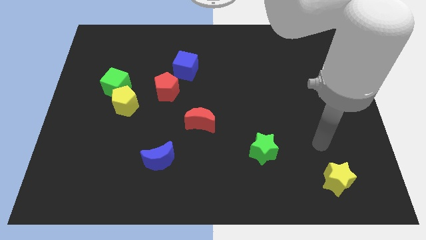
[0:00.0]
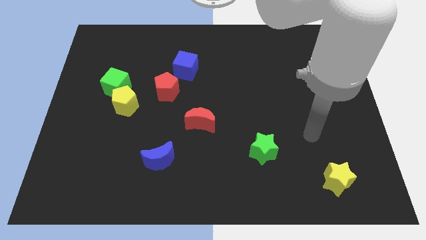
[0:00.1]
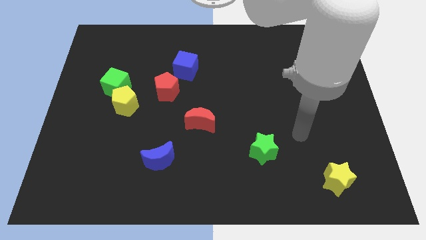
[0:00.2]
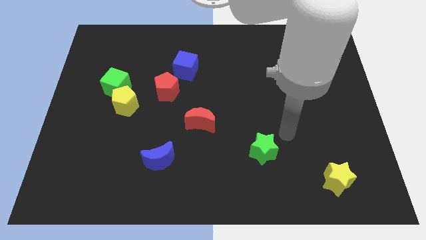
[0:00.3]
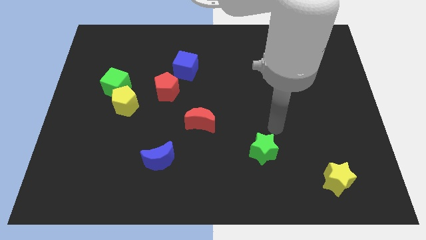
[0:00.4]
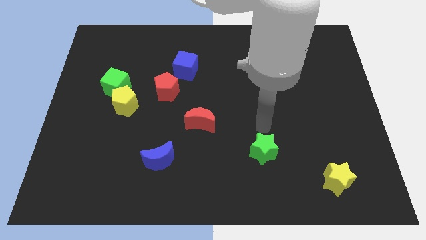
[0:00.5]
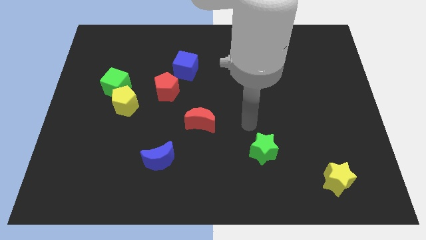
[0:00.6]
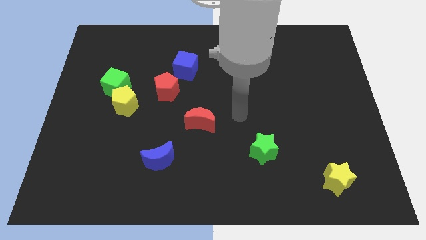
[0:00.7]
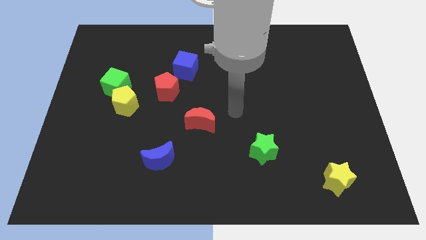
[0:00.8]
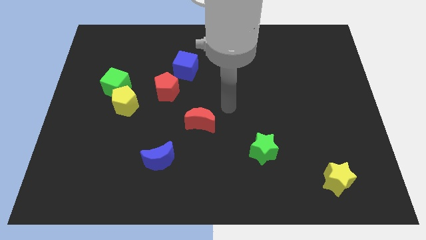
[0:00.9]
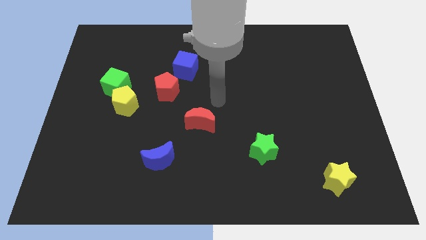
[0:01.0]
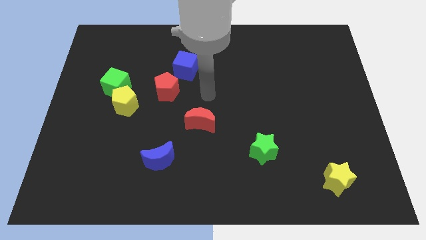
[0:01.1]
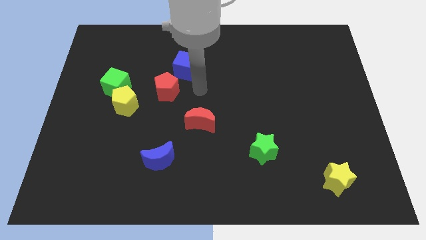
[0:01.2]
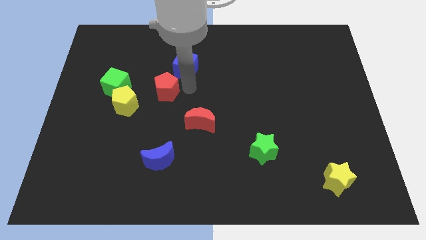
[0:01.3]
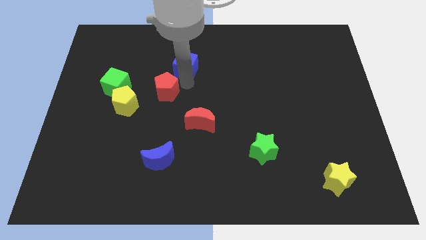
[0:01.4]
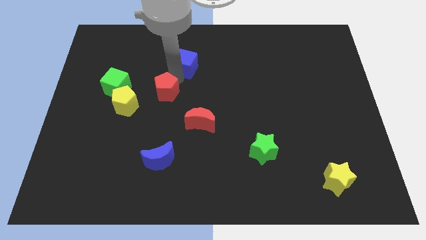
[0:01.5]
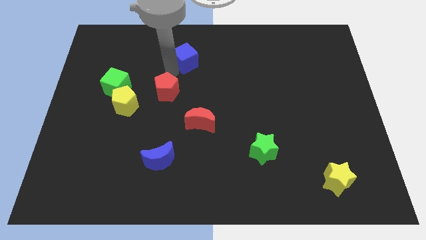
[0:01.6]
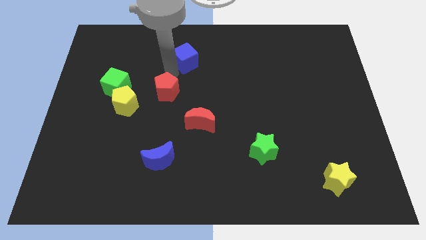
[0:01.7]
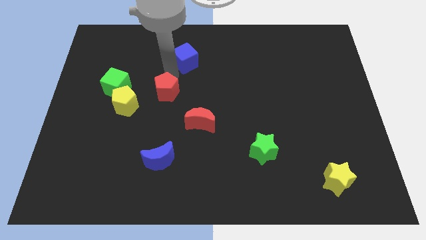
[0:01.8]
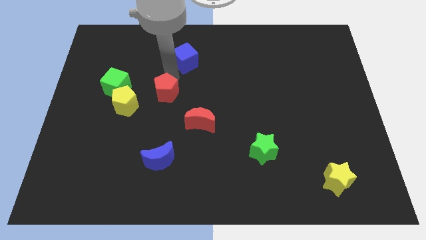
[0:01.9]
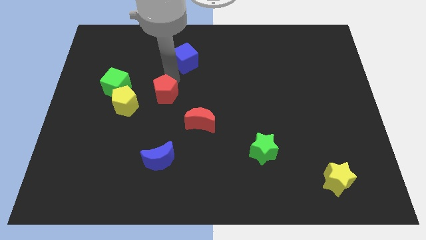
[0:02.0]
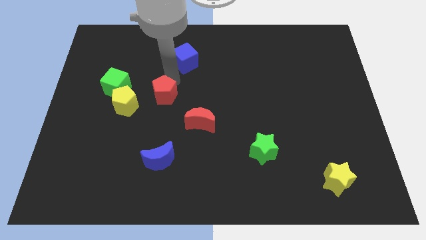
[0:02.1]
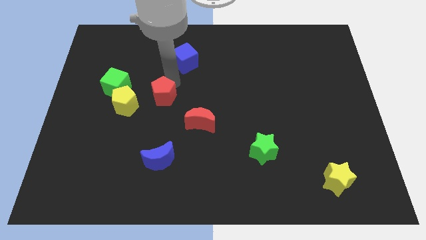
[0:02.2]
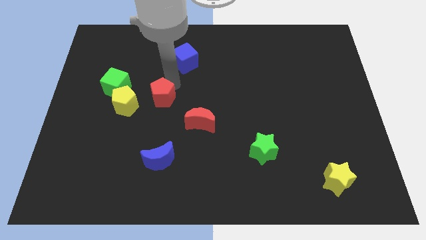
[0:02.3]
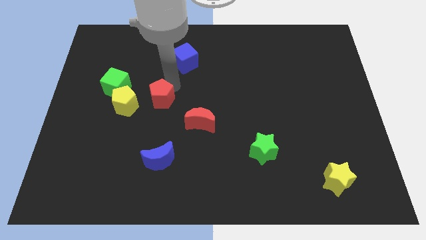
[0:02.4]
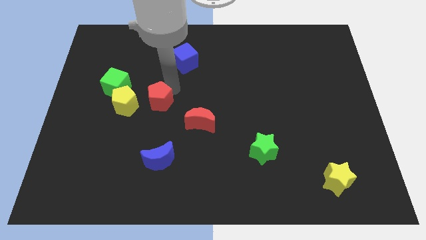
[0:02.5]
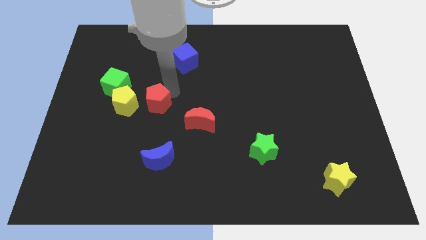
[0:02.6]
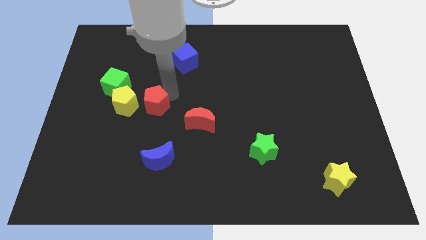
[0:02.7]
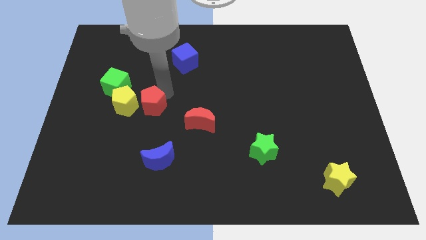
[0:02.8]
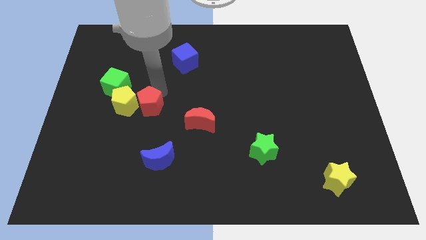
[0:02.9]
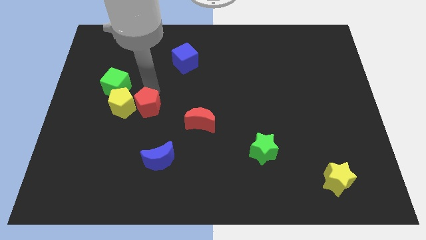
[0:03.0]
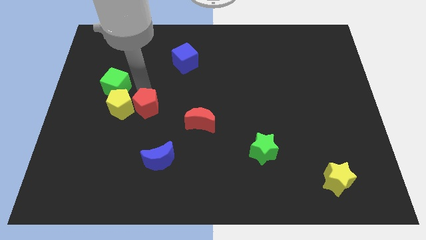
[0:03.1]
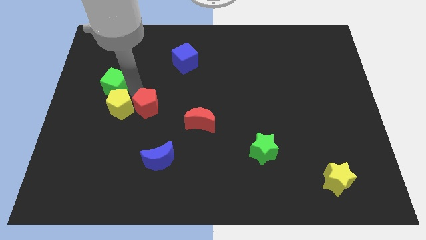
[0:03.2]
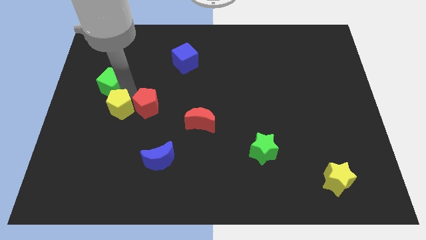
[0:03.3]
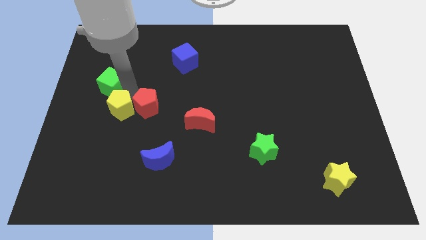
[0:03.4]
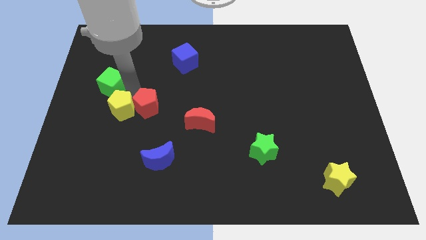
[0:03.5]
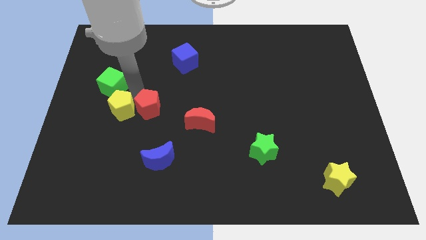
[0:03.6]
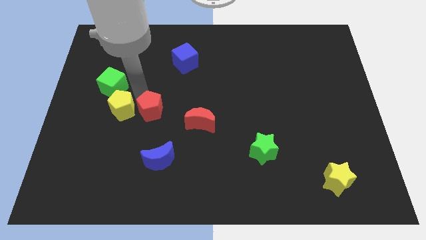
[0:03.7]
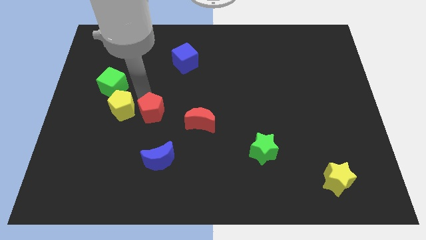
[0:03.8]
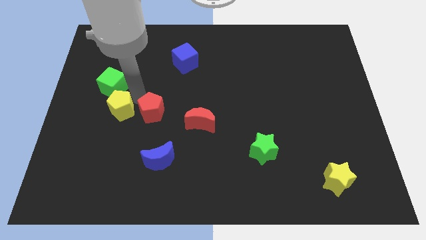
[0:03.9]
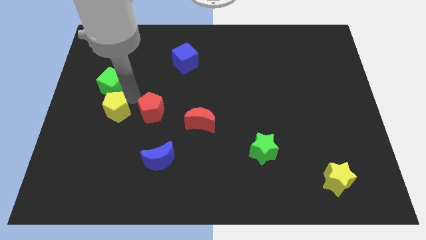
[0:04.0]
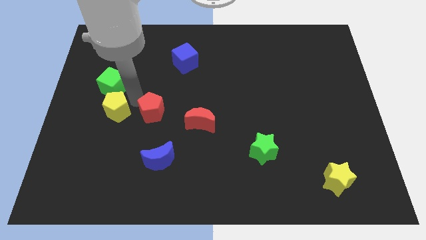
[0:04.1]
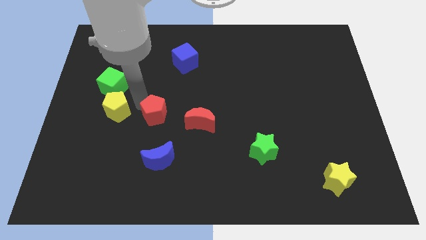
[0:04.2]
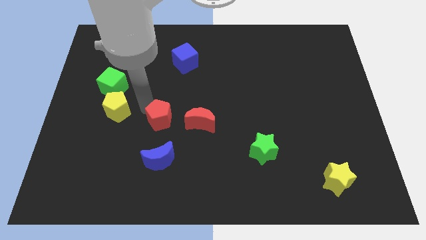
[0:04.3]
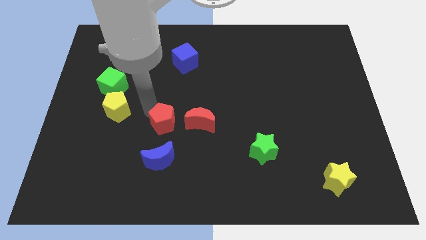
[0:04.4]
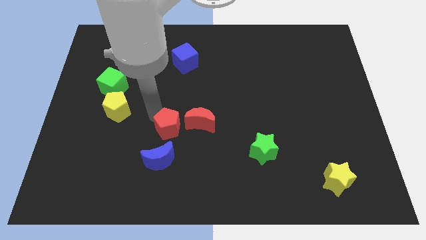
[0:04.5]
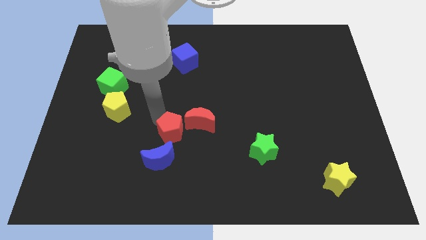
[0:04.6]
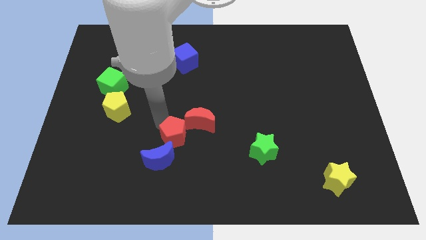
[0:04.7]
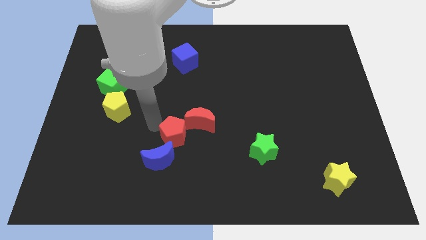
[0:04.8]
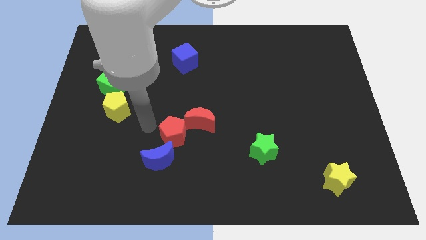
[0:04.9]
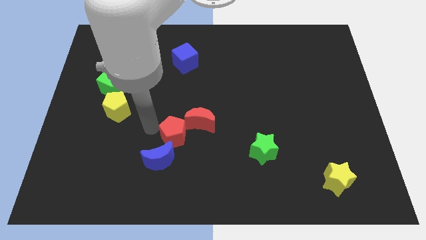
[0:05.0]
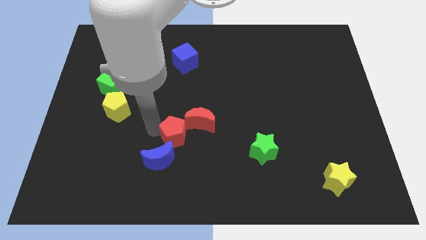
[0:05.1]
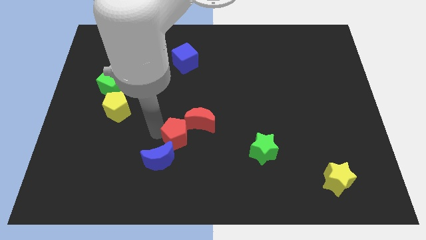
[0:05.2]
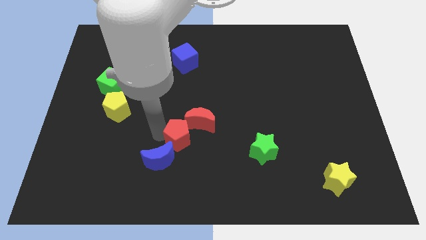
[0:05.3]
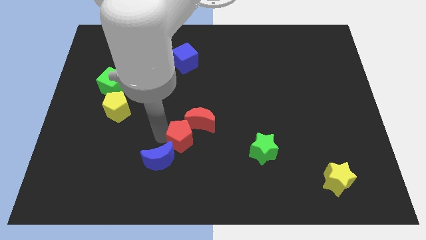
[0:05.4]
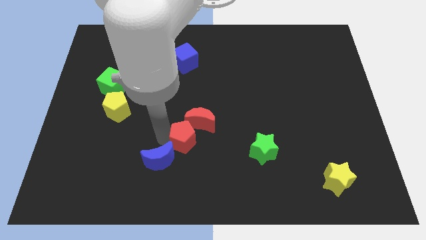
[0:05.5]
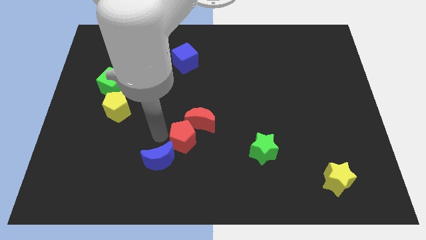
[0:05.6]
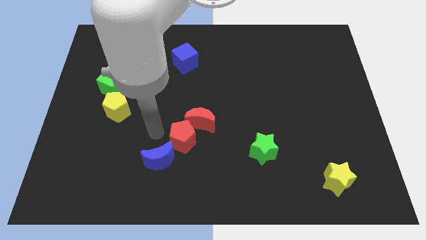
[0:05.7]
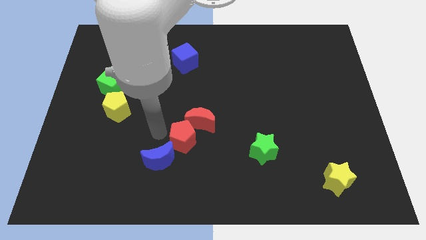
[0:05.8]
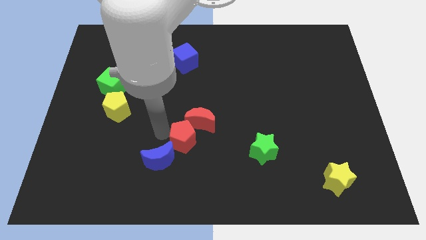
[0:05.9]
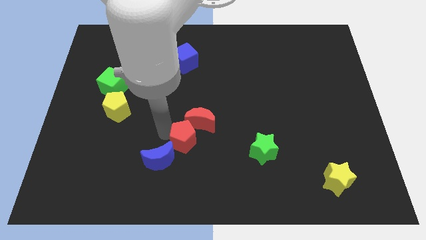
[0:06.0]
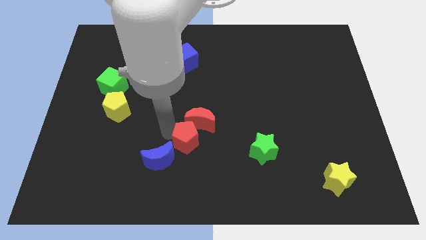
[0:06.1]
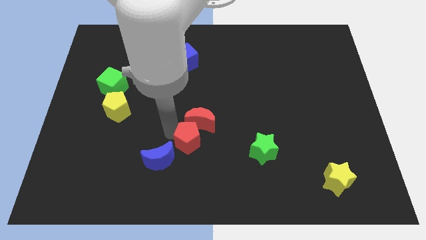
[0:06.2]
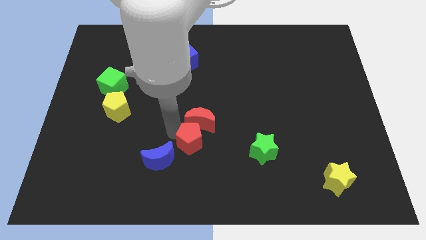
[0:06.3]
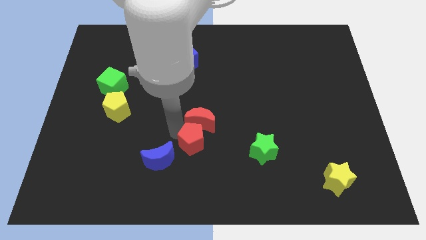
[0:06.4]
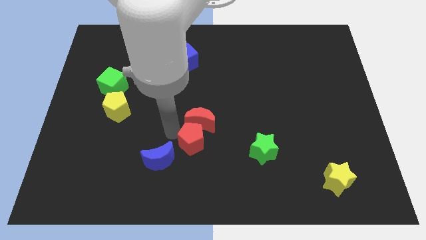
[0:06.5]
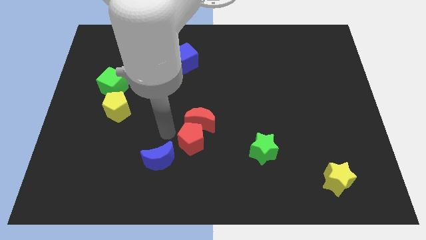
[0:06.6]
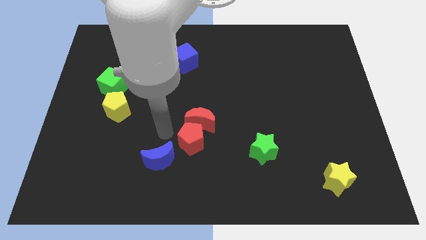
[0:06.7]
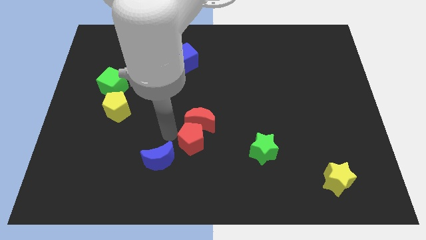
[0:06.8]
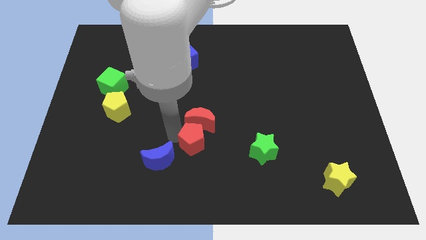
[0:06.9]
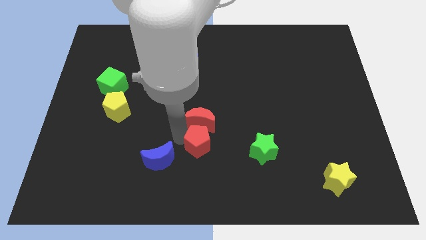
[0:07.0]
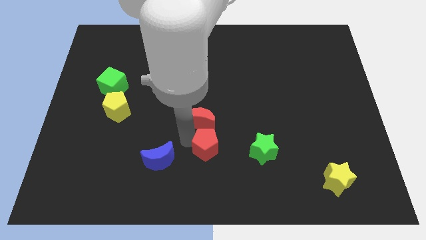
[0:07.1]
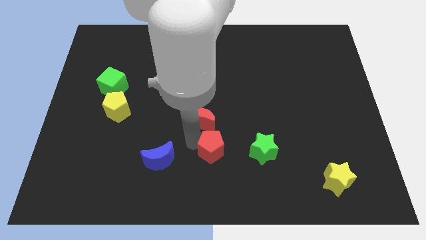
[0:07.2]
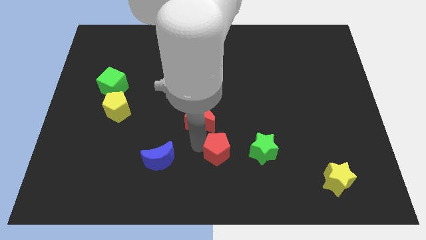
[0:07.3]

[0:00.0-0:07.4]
push the red pentagon downwards and then right

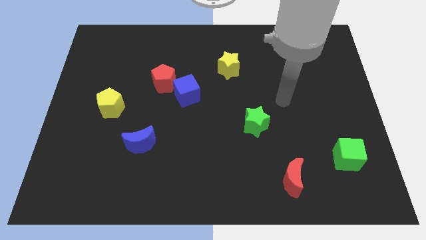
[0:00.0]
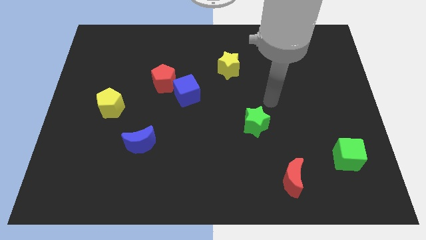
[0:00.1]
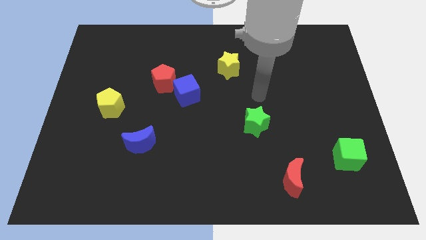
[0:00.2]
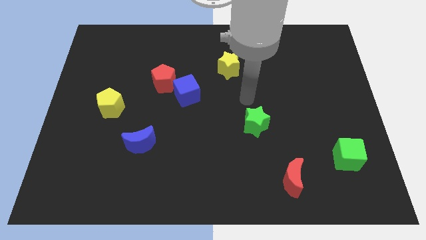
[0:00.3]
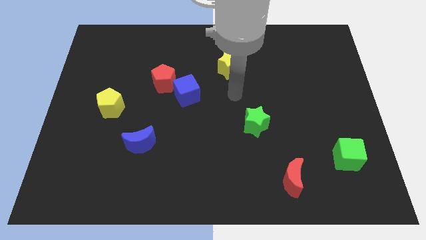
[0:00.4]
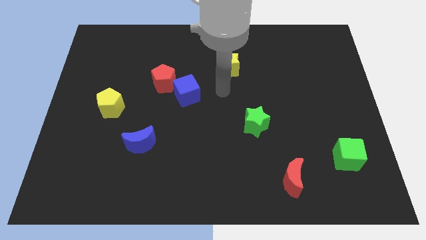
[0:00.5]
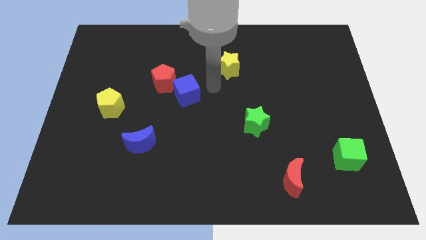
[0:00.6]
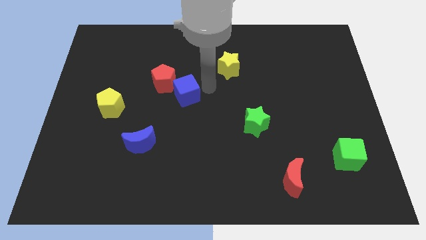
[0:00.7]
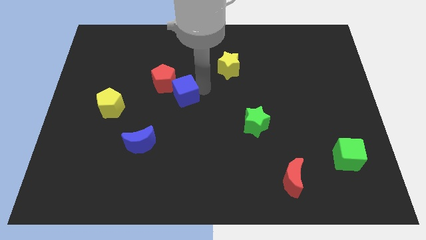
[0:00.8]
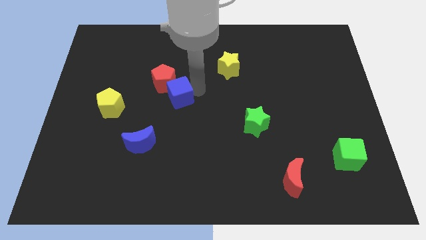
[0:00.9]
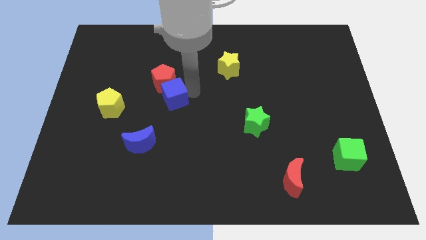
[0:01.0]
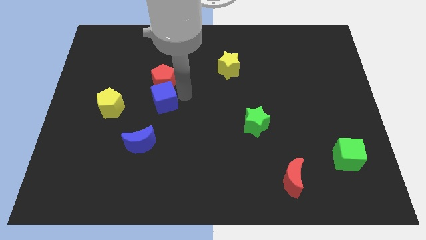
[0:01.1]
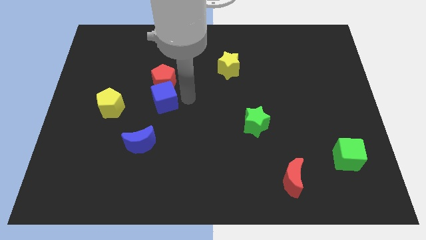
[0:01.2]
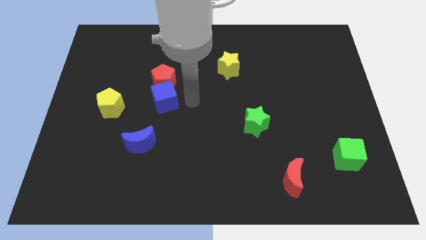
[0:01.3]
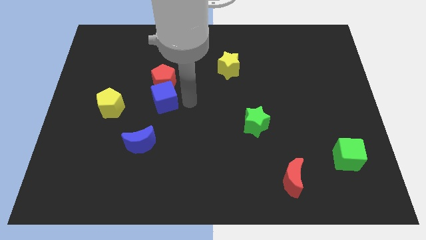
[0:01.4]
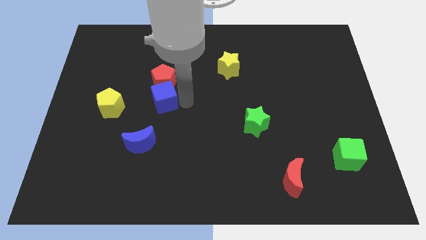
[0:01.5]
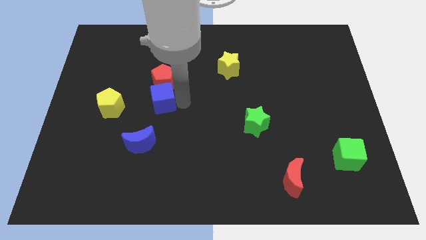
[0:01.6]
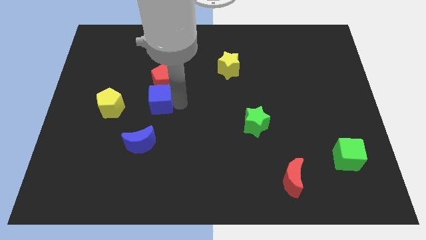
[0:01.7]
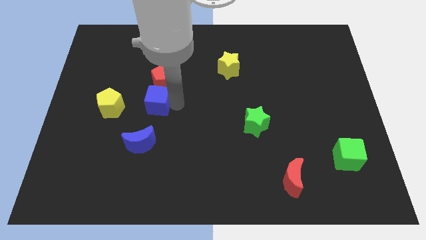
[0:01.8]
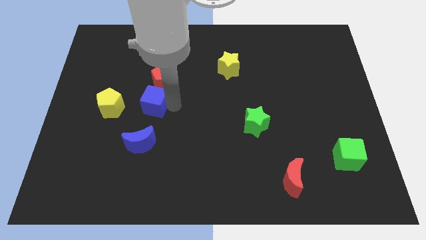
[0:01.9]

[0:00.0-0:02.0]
slightly move the blue cube left
